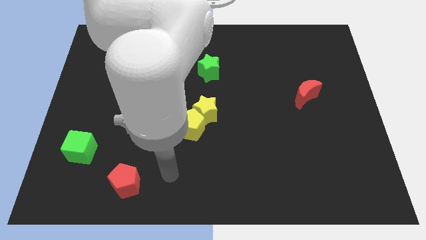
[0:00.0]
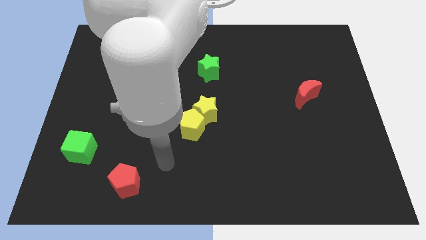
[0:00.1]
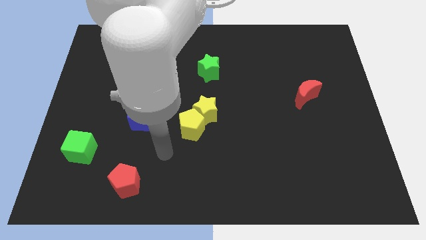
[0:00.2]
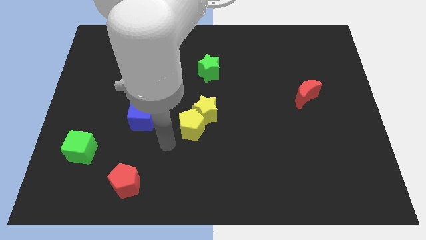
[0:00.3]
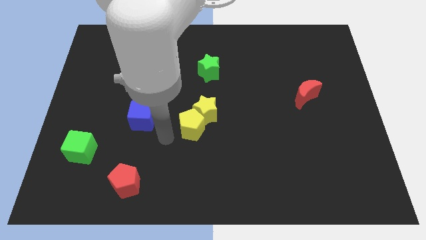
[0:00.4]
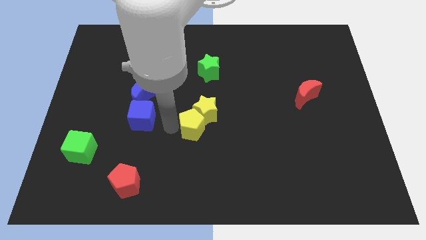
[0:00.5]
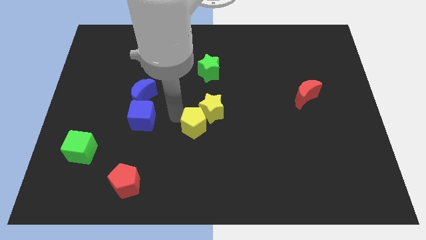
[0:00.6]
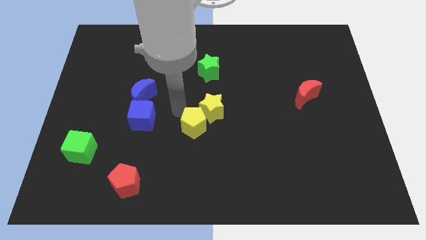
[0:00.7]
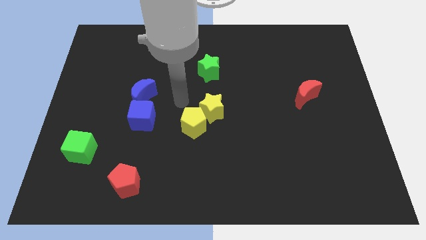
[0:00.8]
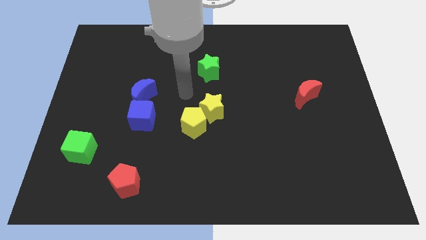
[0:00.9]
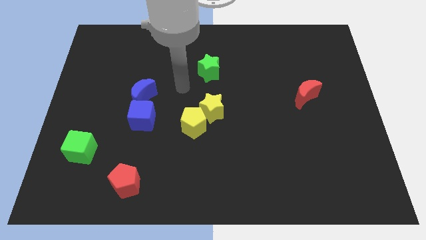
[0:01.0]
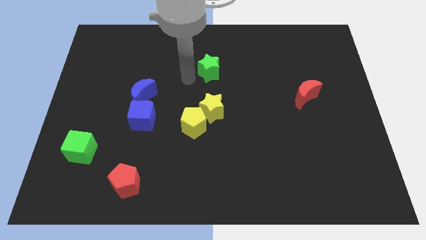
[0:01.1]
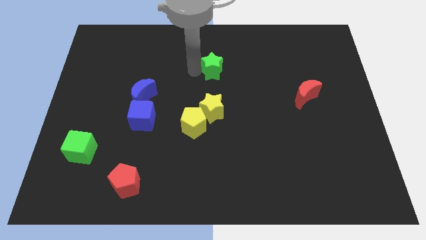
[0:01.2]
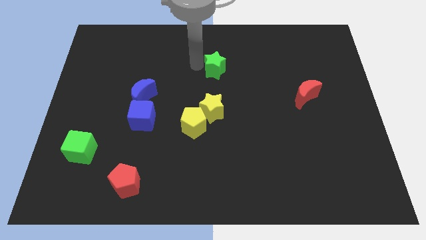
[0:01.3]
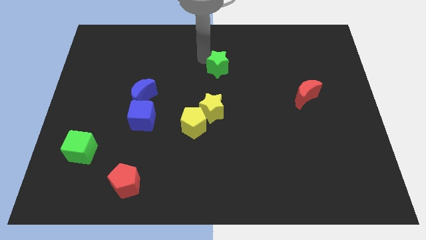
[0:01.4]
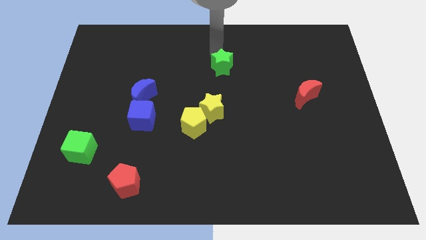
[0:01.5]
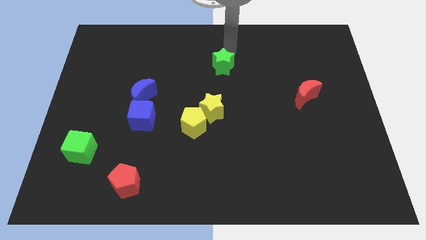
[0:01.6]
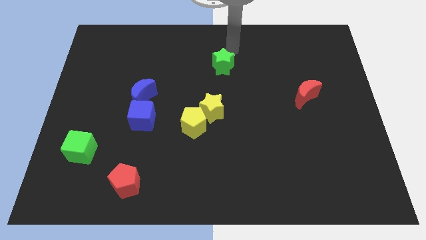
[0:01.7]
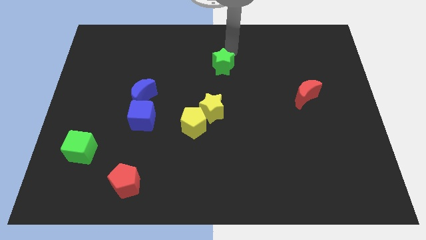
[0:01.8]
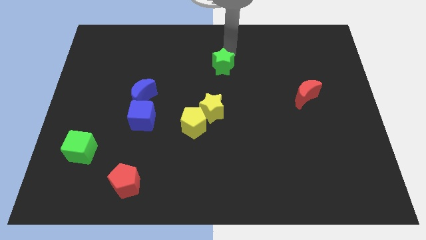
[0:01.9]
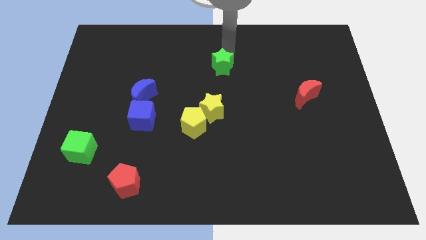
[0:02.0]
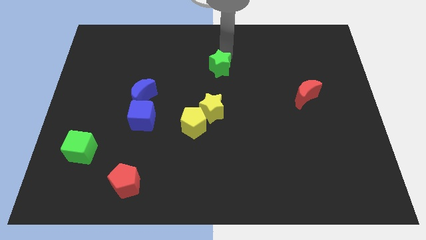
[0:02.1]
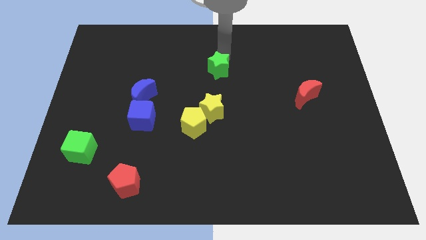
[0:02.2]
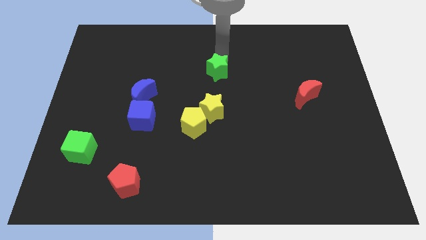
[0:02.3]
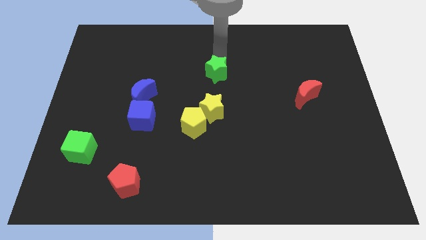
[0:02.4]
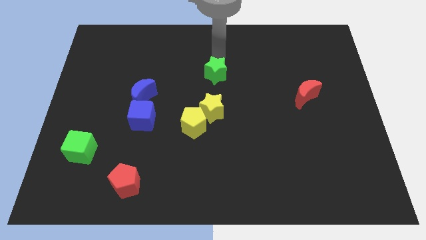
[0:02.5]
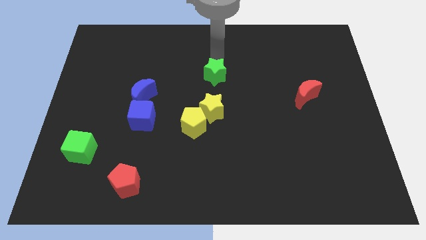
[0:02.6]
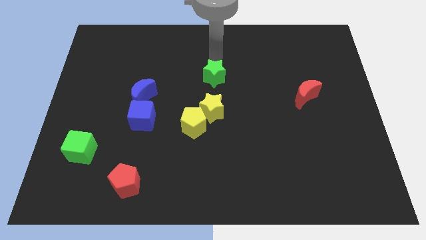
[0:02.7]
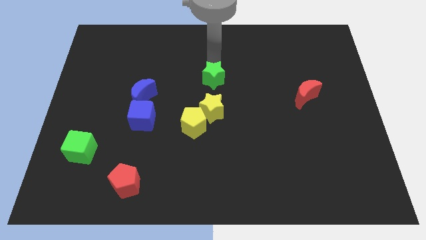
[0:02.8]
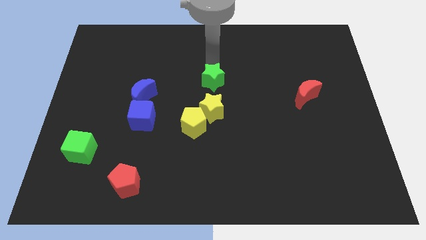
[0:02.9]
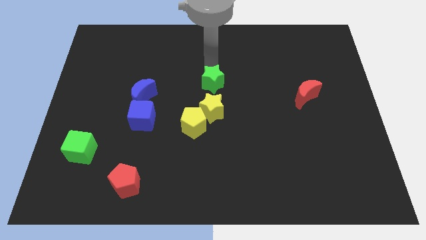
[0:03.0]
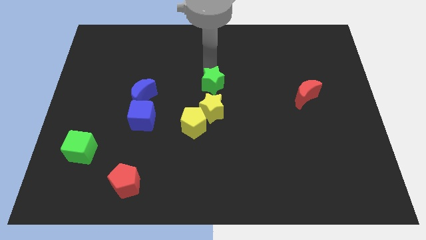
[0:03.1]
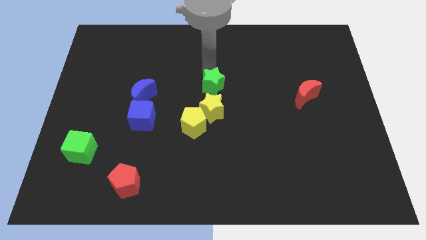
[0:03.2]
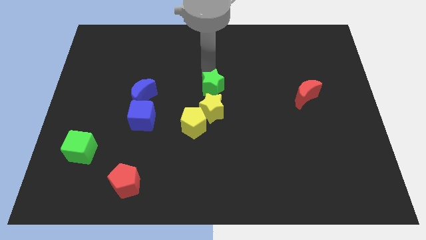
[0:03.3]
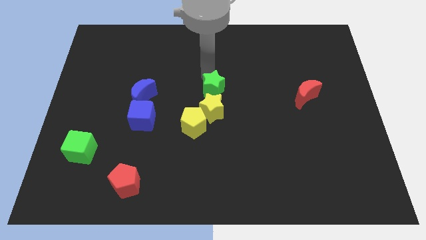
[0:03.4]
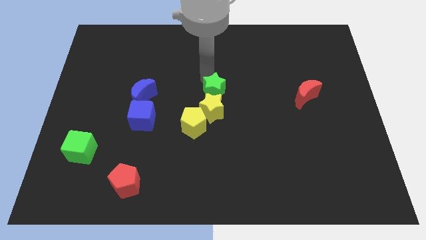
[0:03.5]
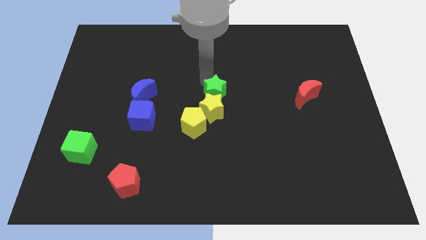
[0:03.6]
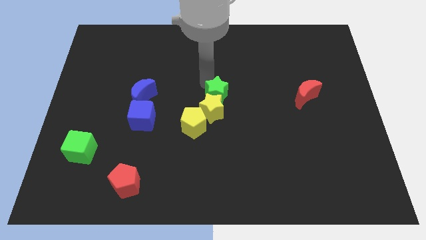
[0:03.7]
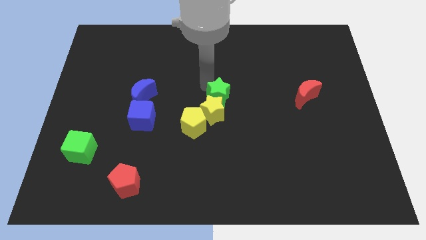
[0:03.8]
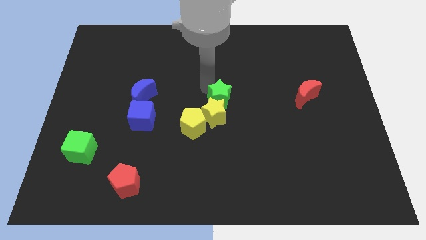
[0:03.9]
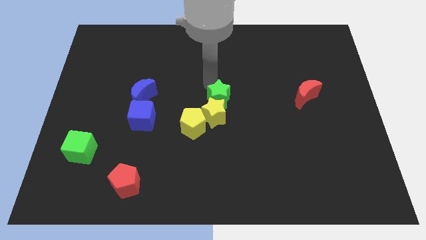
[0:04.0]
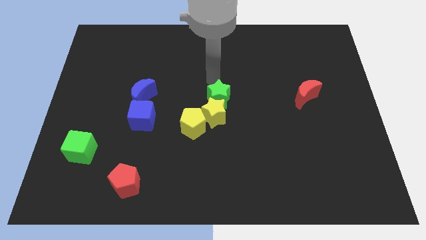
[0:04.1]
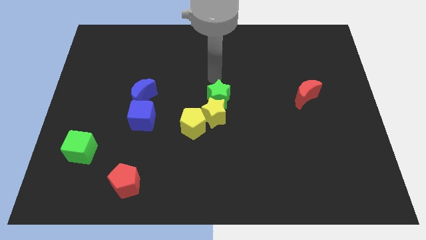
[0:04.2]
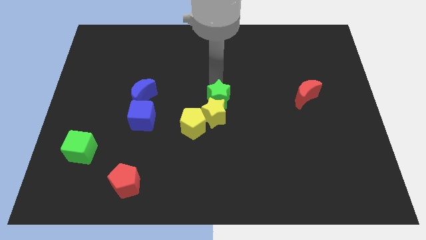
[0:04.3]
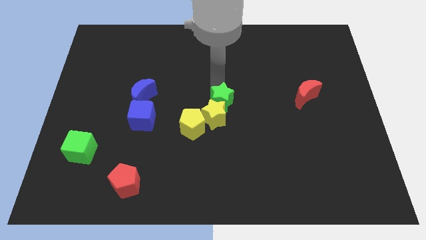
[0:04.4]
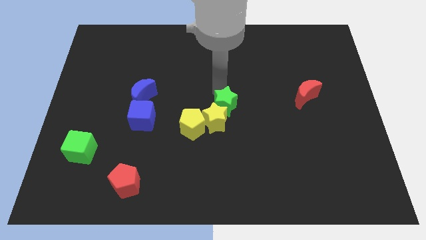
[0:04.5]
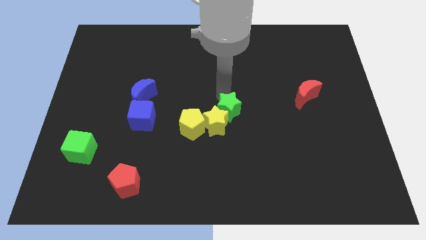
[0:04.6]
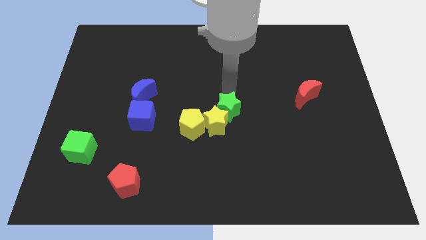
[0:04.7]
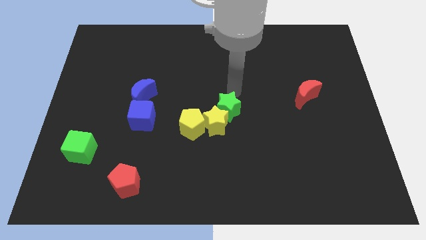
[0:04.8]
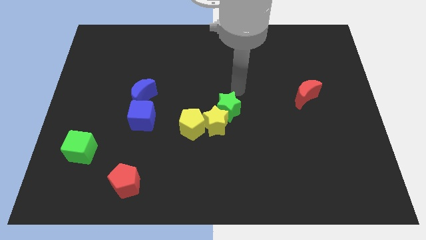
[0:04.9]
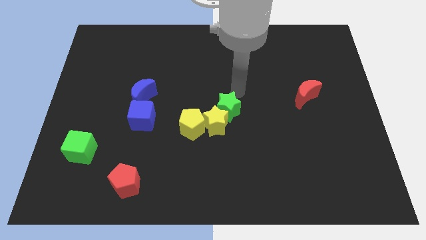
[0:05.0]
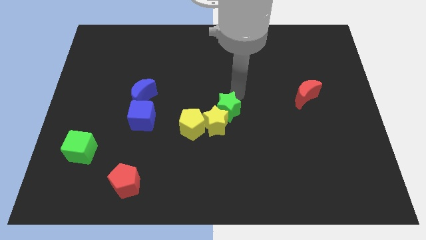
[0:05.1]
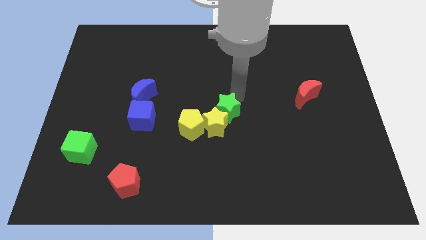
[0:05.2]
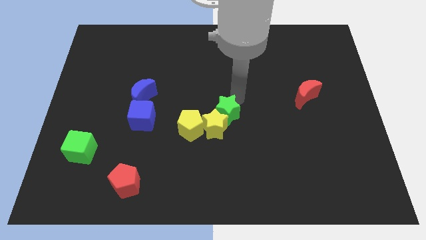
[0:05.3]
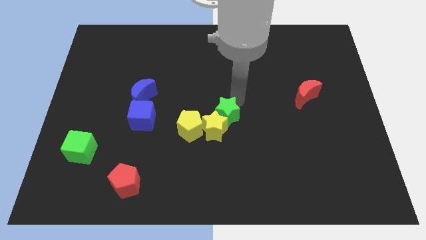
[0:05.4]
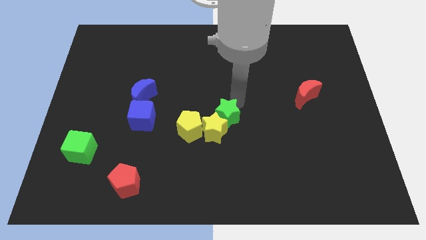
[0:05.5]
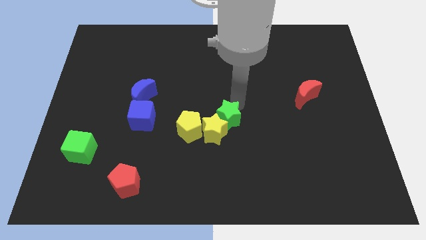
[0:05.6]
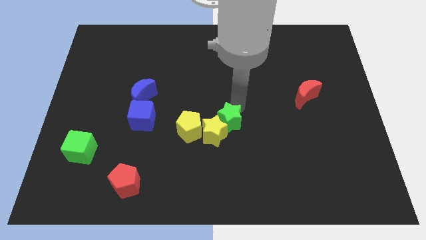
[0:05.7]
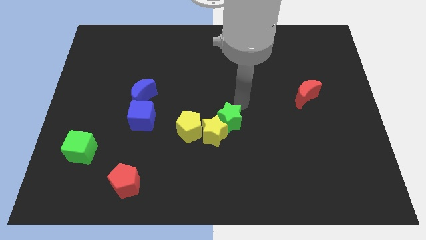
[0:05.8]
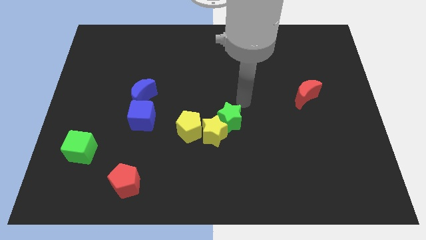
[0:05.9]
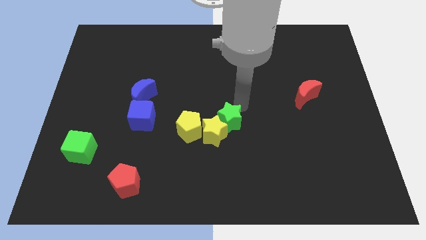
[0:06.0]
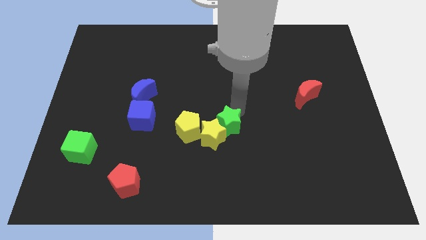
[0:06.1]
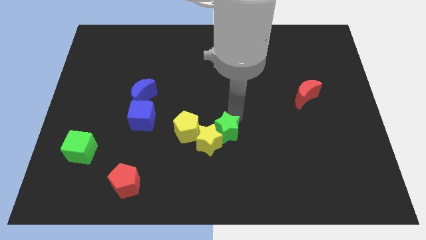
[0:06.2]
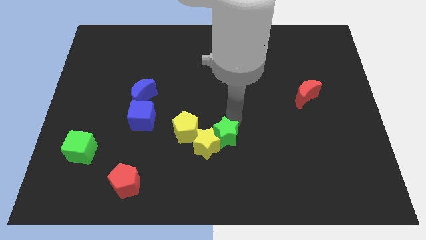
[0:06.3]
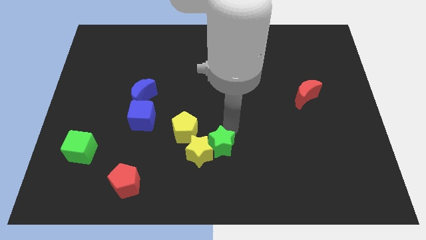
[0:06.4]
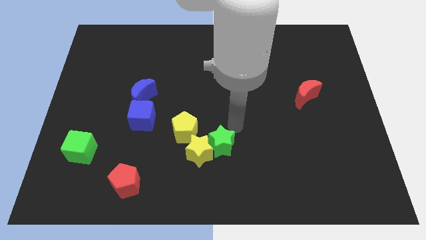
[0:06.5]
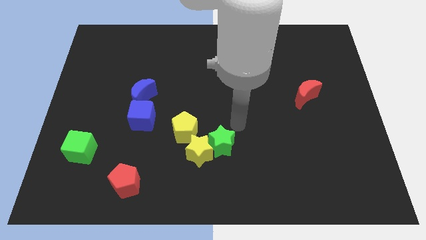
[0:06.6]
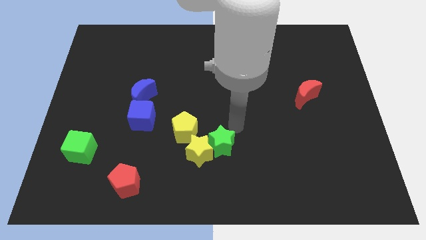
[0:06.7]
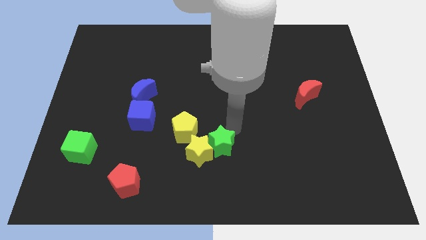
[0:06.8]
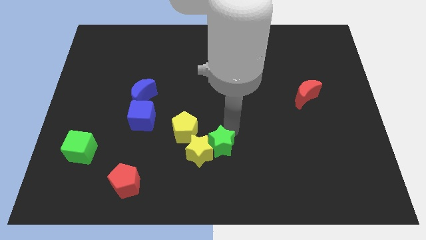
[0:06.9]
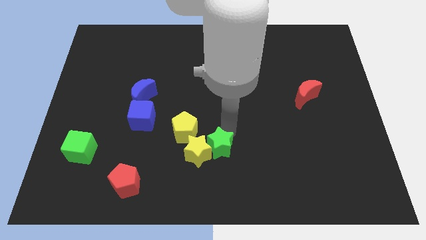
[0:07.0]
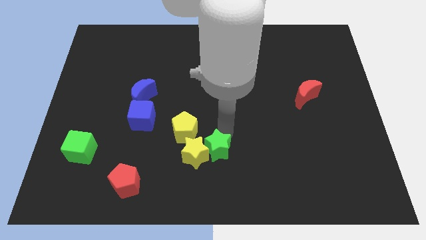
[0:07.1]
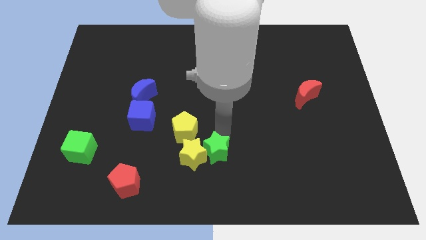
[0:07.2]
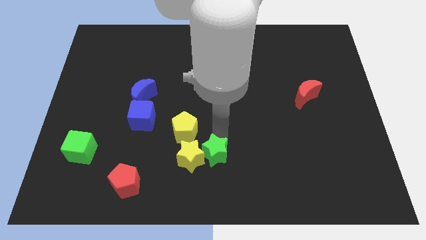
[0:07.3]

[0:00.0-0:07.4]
push the green star to the bottom
